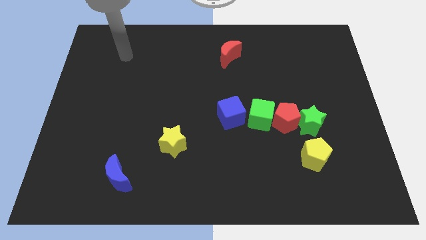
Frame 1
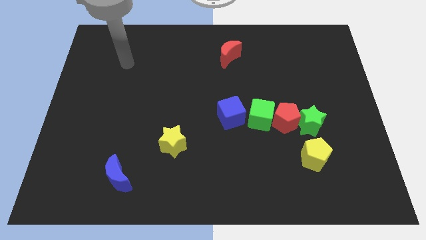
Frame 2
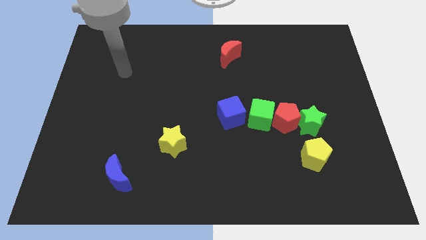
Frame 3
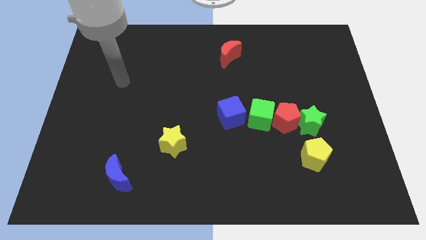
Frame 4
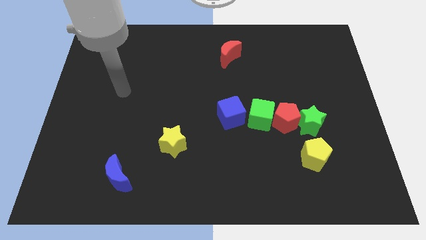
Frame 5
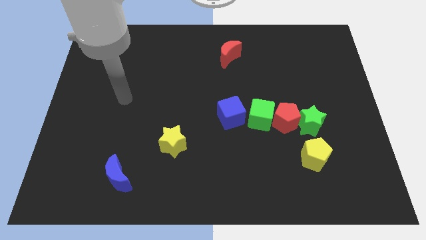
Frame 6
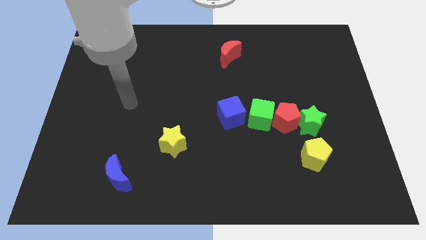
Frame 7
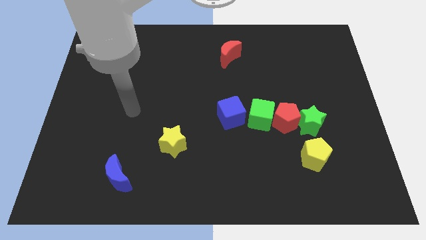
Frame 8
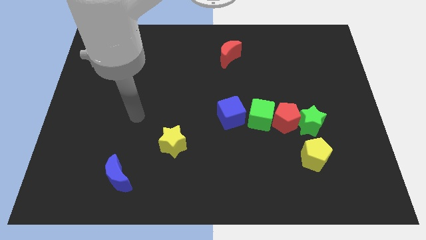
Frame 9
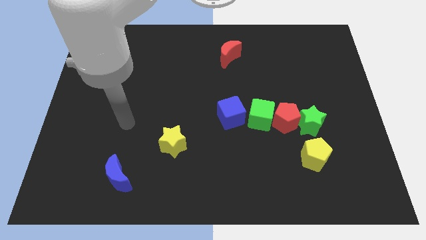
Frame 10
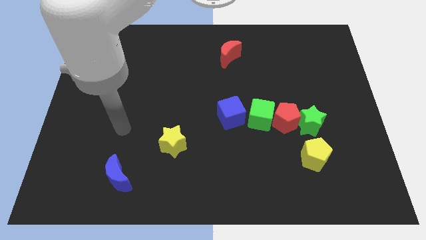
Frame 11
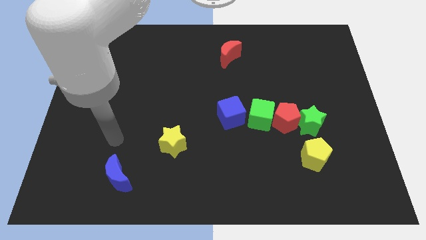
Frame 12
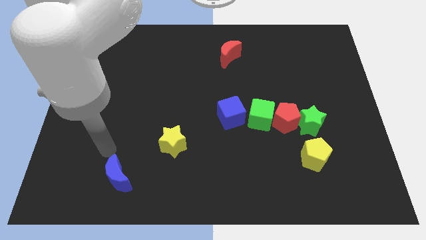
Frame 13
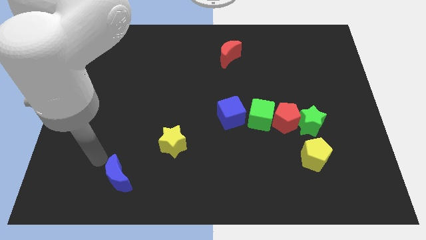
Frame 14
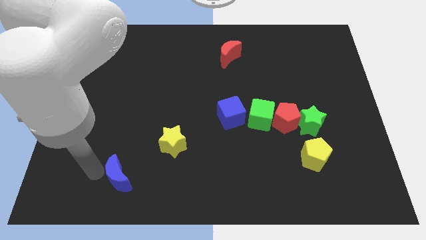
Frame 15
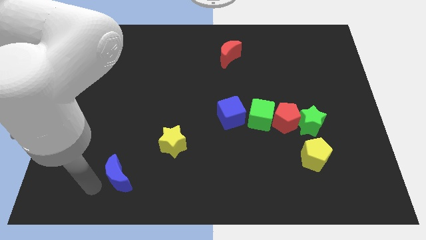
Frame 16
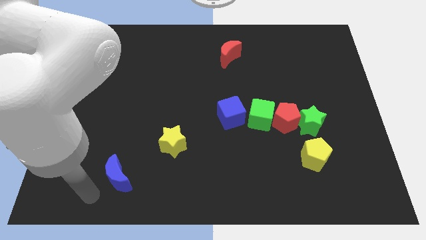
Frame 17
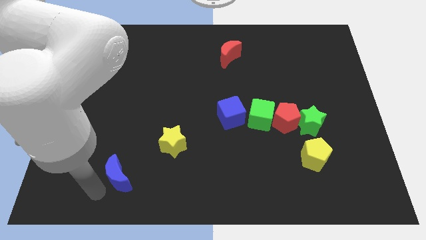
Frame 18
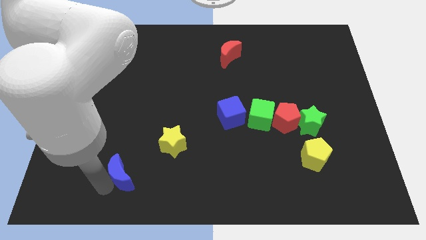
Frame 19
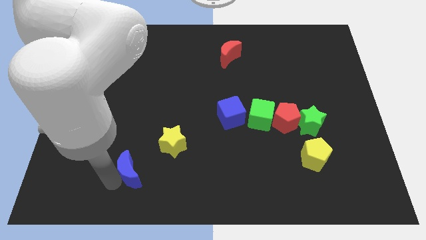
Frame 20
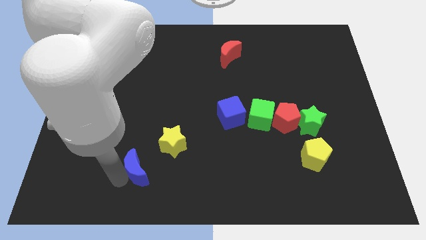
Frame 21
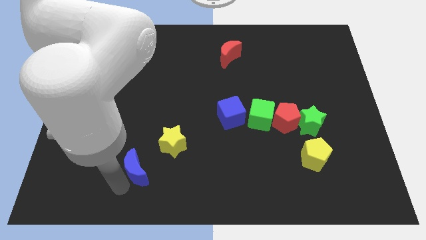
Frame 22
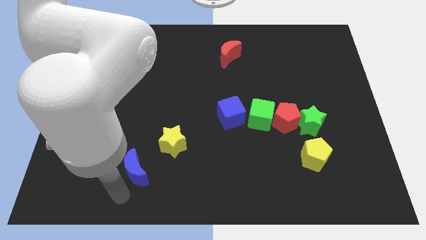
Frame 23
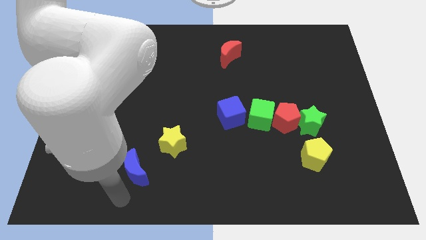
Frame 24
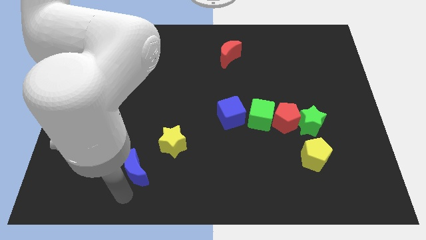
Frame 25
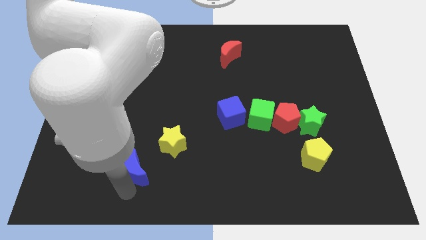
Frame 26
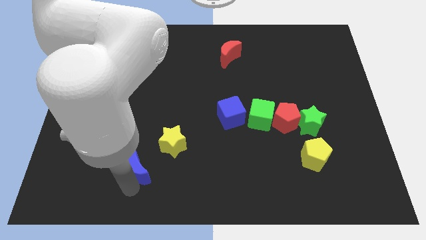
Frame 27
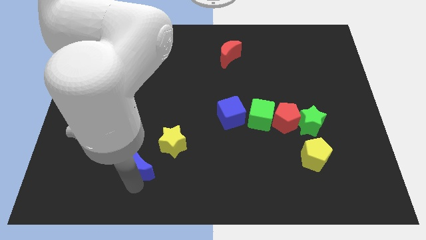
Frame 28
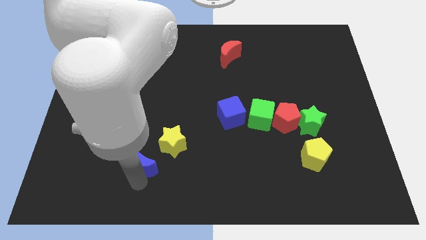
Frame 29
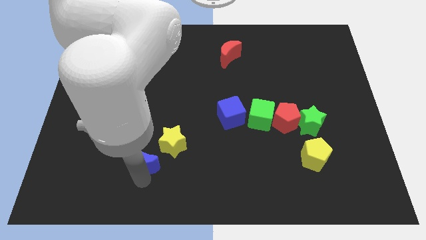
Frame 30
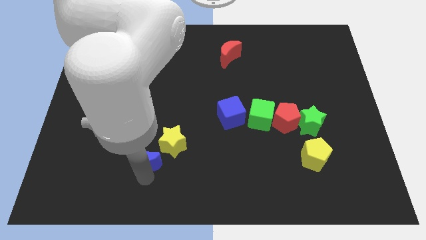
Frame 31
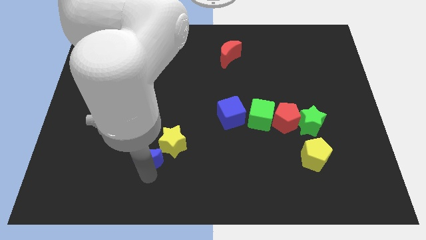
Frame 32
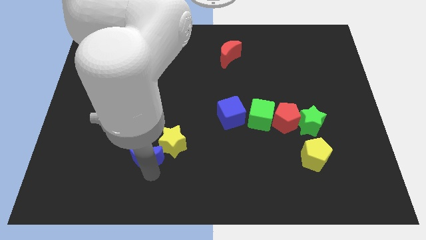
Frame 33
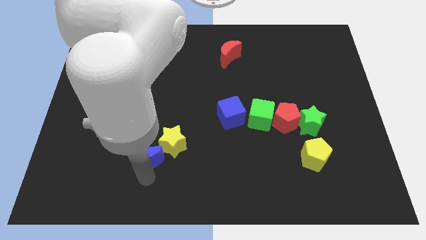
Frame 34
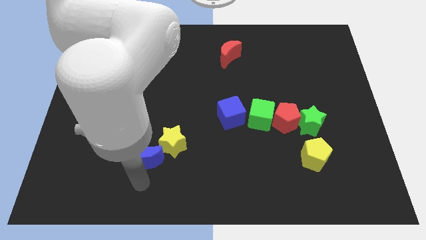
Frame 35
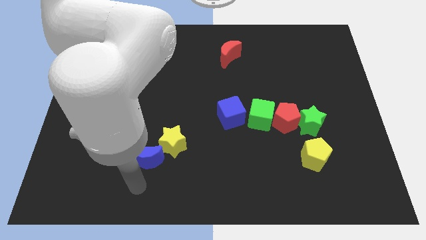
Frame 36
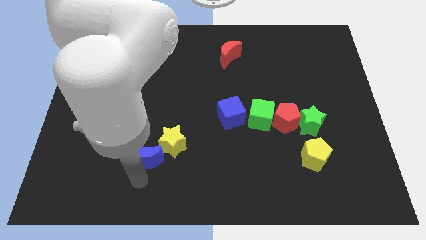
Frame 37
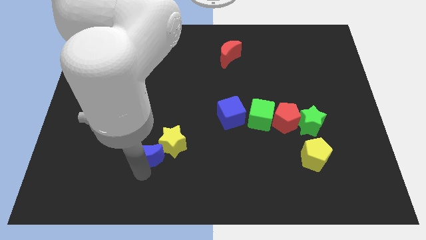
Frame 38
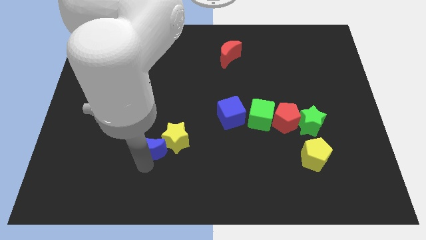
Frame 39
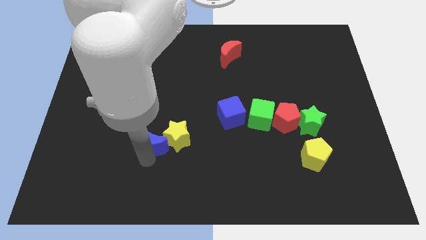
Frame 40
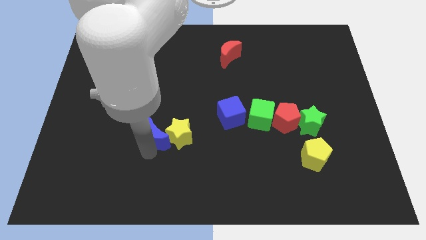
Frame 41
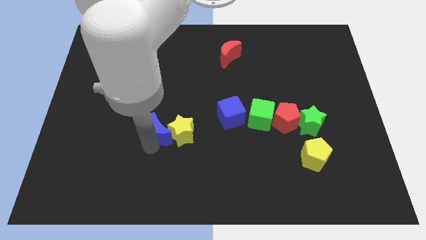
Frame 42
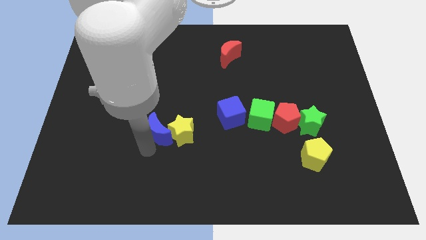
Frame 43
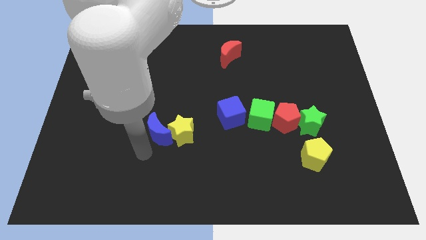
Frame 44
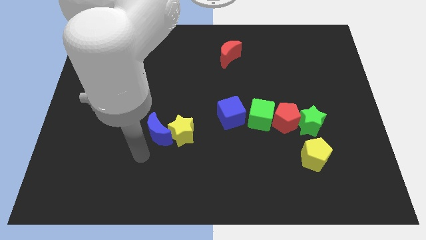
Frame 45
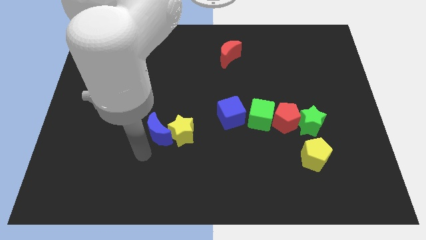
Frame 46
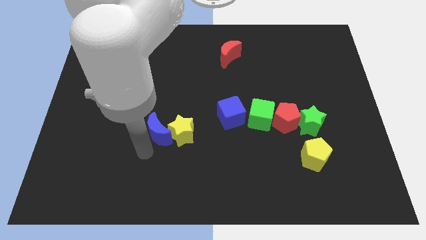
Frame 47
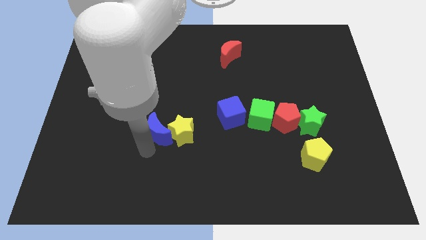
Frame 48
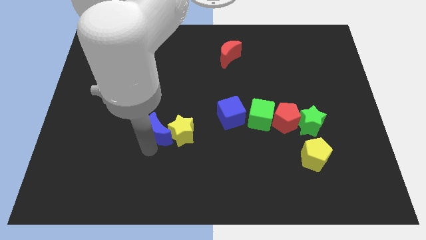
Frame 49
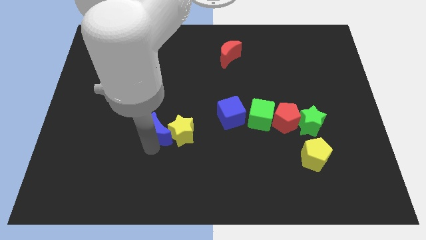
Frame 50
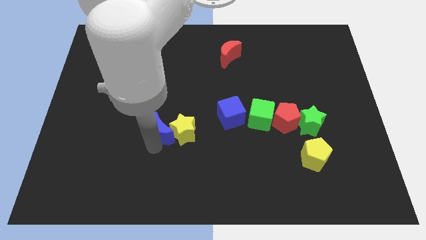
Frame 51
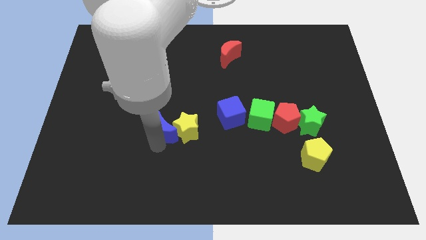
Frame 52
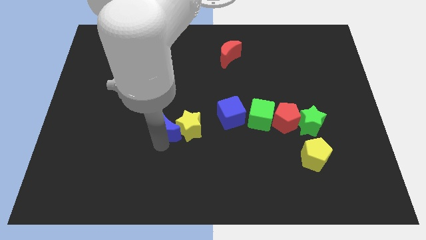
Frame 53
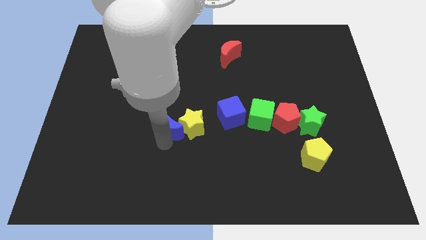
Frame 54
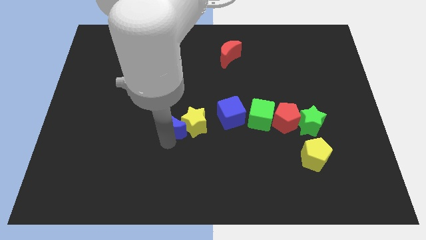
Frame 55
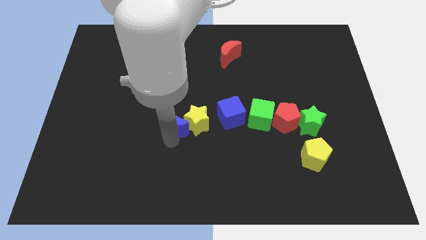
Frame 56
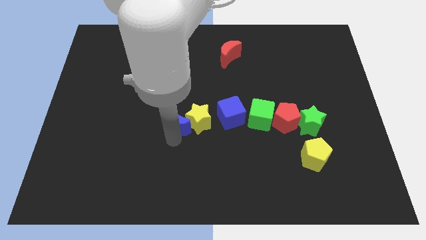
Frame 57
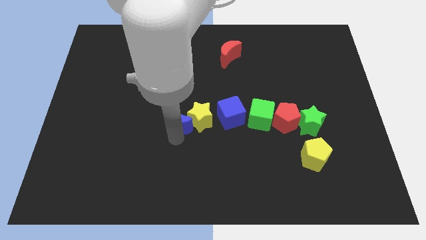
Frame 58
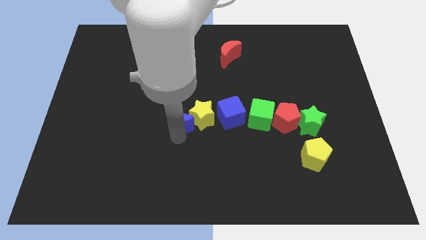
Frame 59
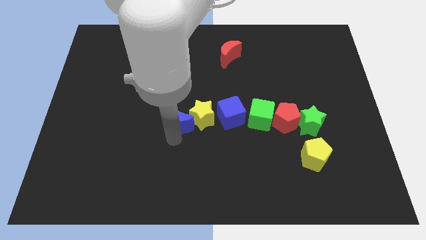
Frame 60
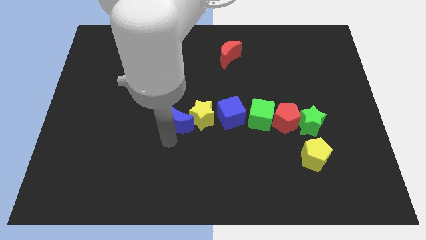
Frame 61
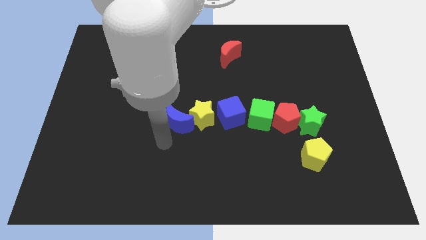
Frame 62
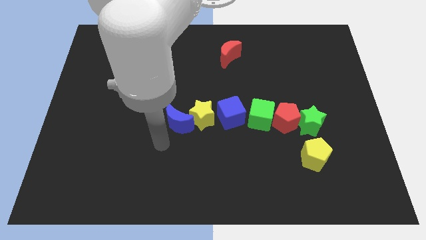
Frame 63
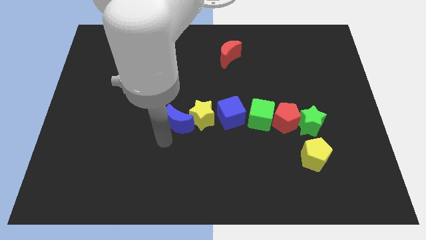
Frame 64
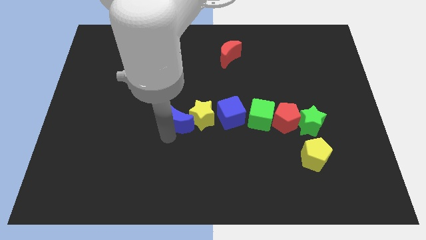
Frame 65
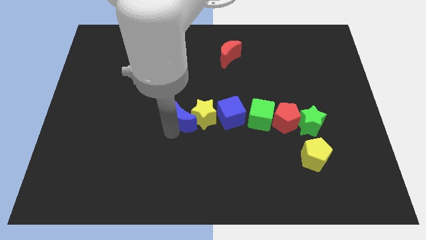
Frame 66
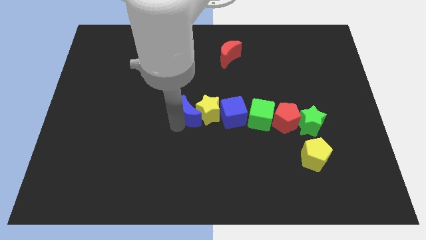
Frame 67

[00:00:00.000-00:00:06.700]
slide the blue moon up and right diagonally

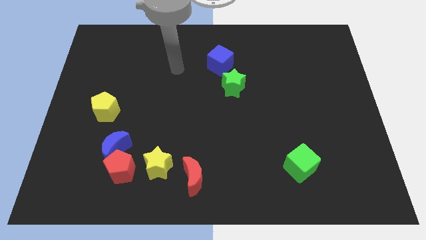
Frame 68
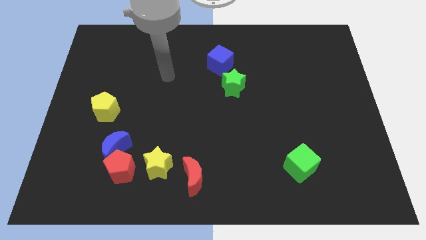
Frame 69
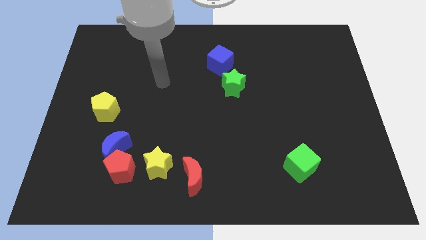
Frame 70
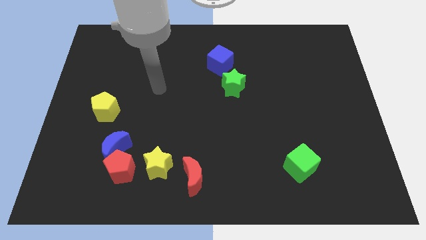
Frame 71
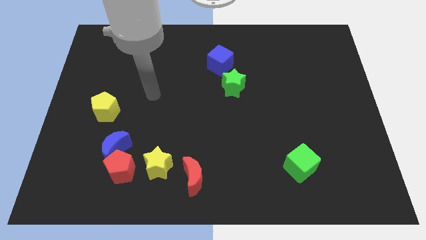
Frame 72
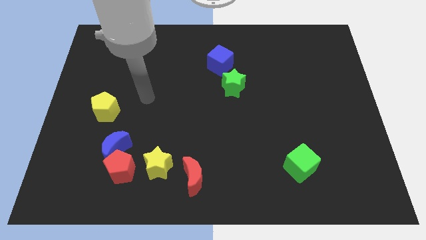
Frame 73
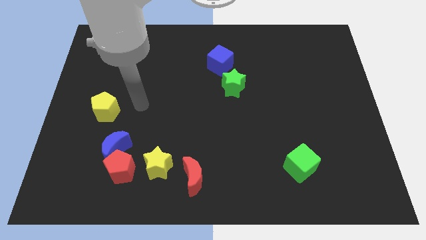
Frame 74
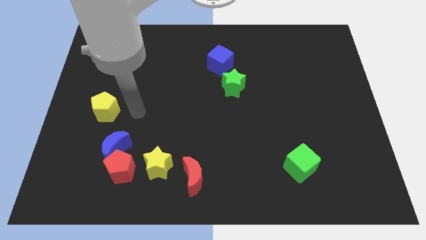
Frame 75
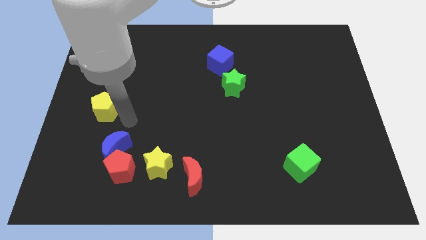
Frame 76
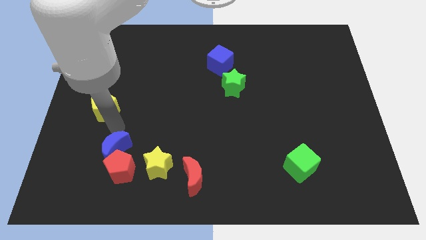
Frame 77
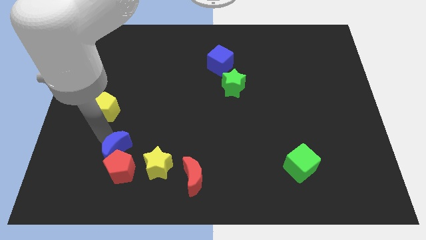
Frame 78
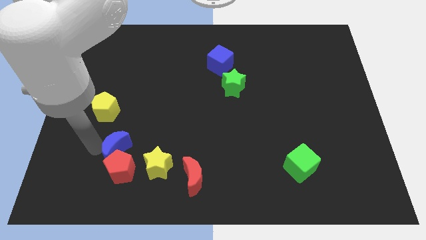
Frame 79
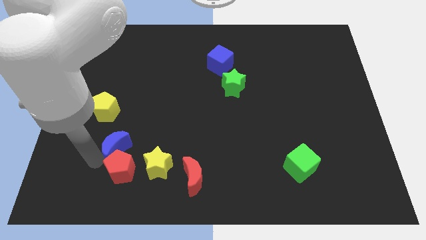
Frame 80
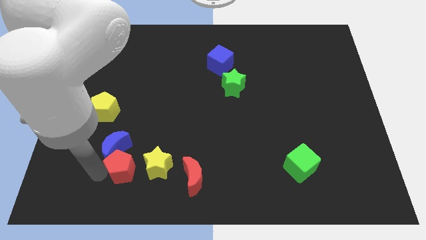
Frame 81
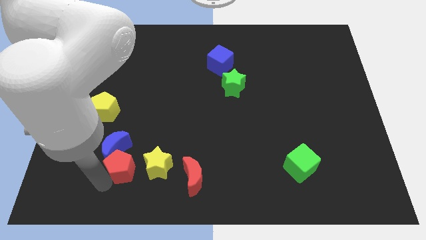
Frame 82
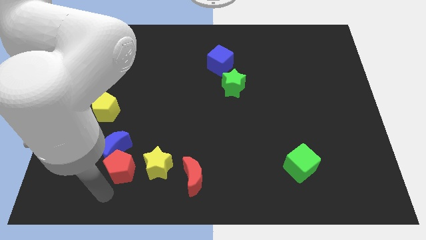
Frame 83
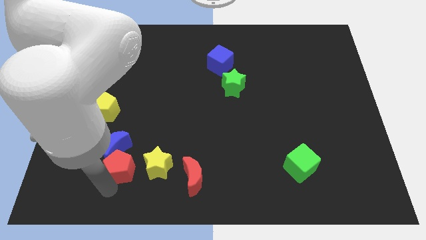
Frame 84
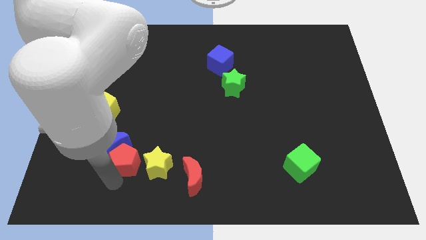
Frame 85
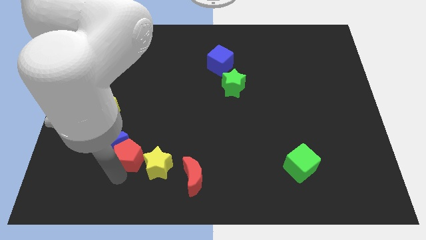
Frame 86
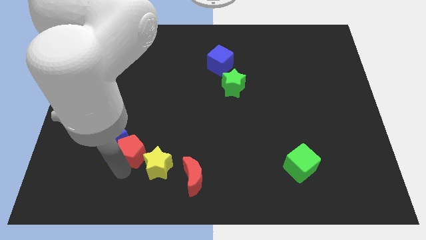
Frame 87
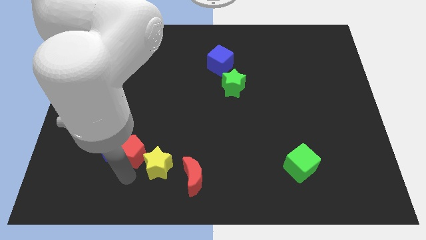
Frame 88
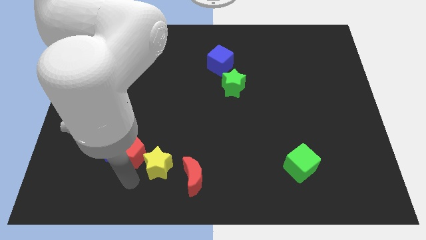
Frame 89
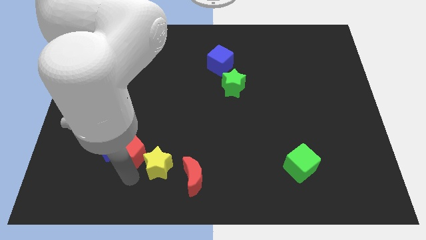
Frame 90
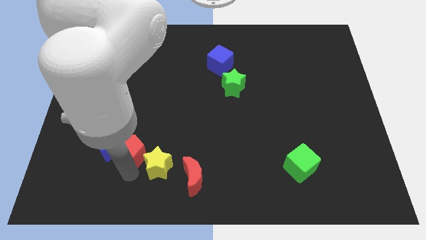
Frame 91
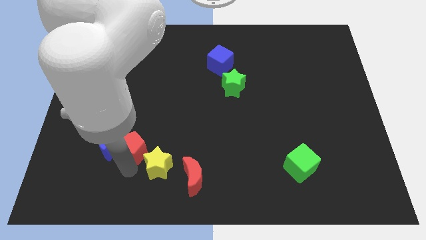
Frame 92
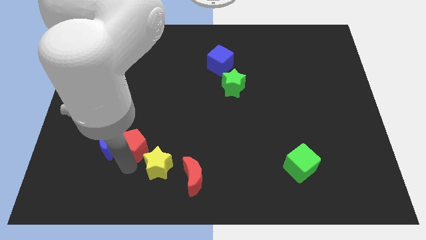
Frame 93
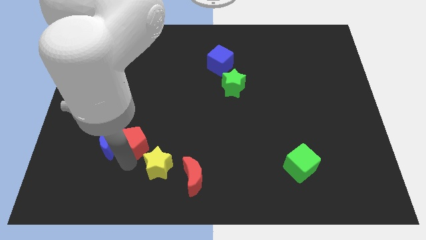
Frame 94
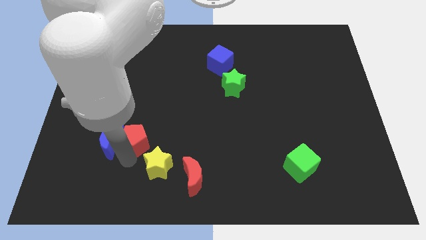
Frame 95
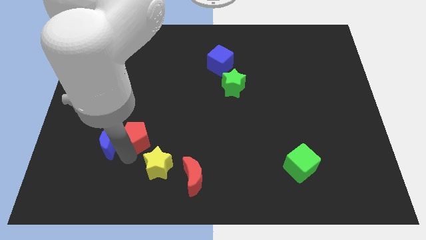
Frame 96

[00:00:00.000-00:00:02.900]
slightly move the red pentagon up
